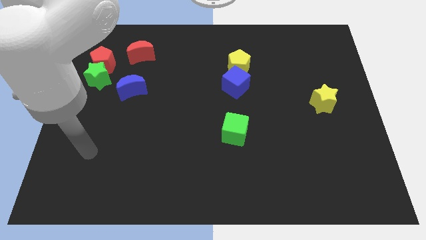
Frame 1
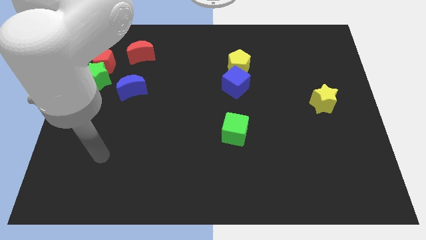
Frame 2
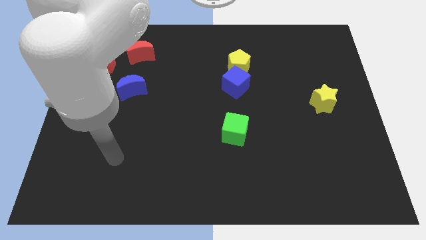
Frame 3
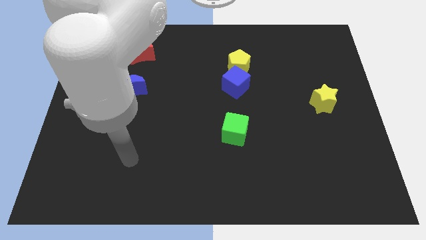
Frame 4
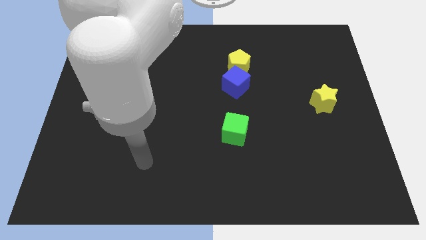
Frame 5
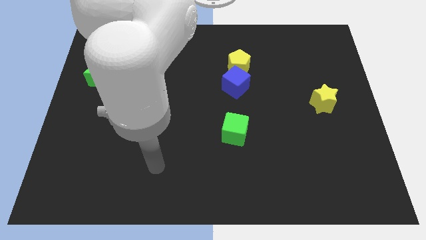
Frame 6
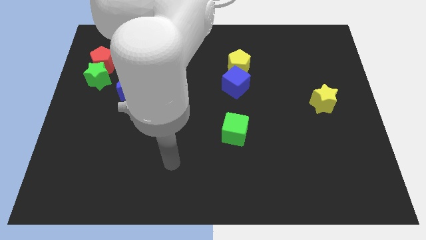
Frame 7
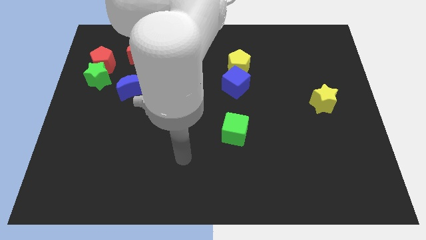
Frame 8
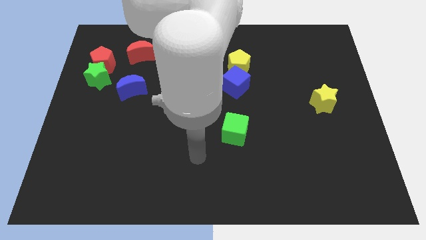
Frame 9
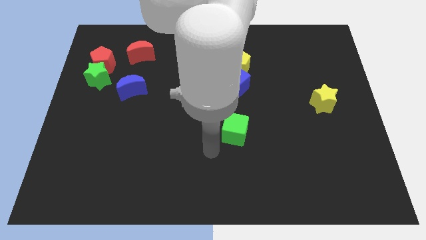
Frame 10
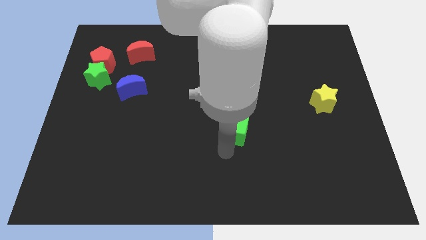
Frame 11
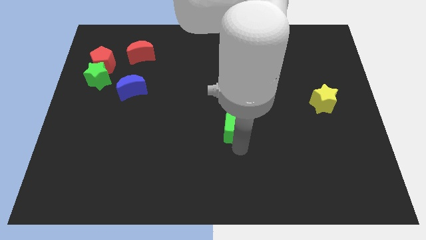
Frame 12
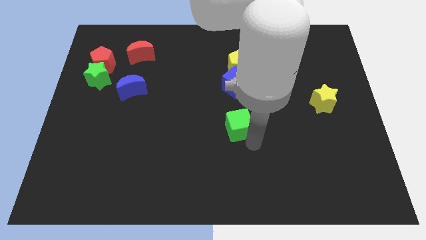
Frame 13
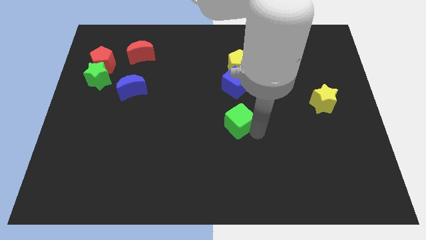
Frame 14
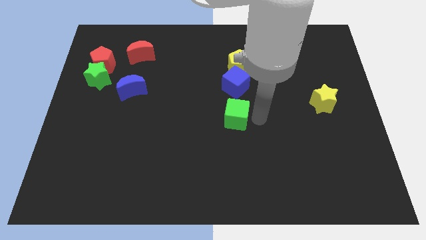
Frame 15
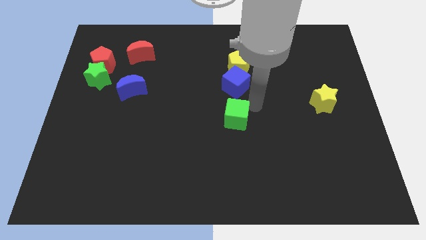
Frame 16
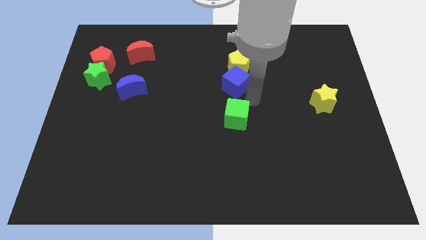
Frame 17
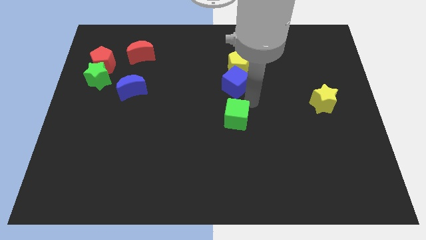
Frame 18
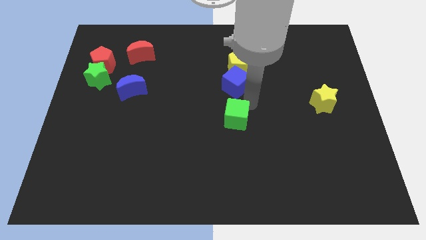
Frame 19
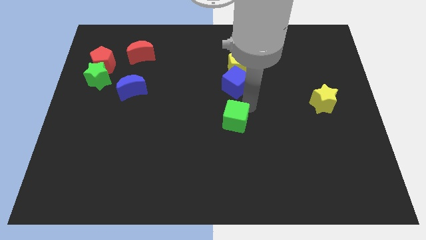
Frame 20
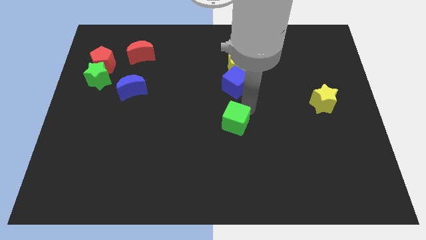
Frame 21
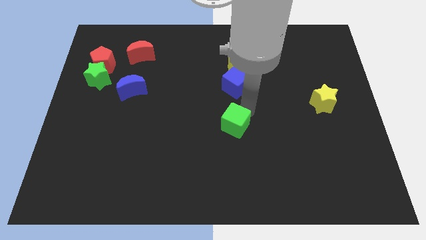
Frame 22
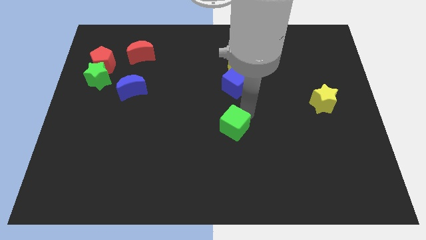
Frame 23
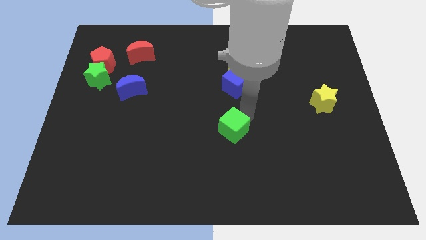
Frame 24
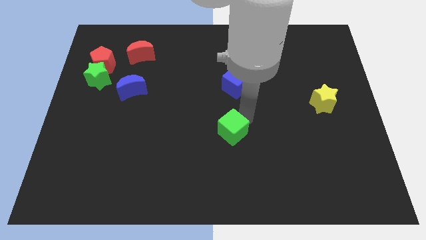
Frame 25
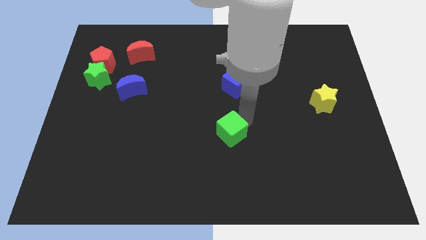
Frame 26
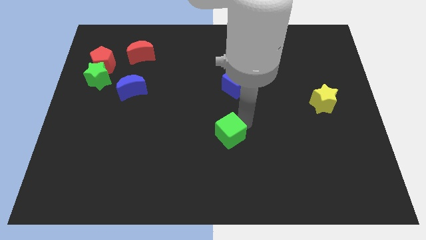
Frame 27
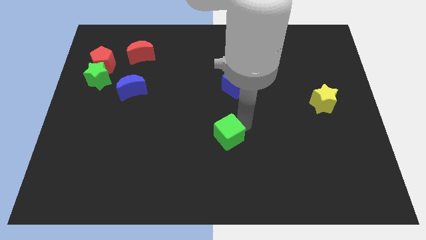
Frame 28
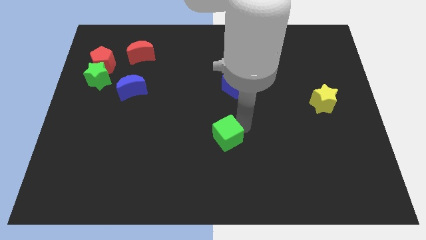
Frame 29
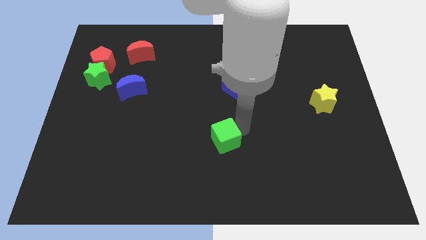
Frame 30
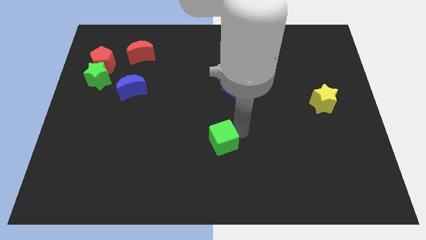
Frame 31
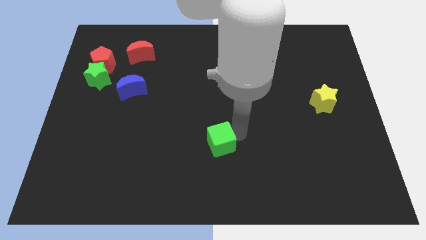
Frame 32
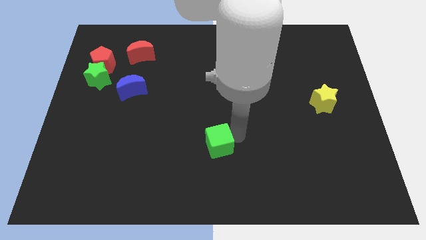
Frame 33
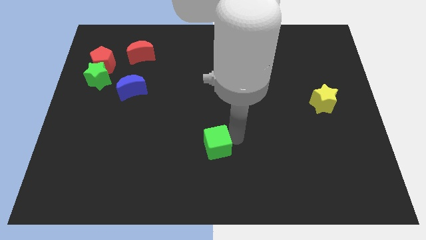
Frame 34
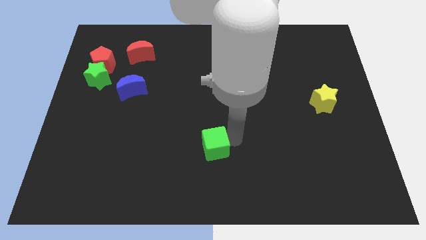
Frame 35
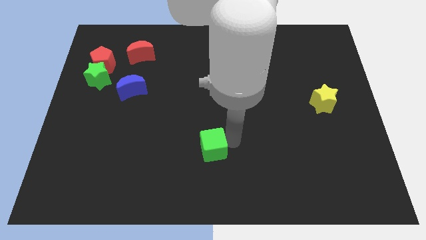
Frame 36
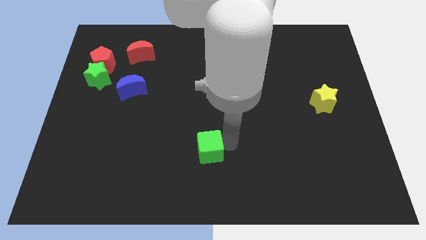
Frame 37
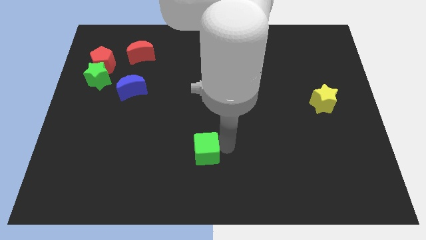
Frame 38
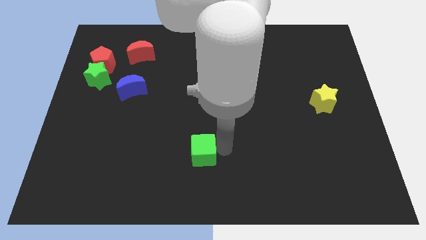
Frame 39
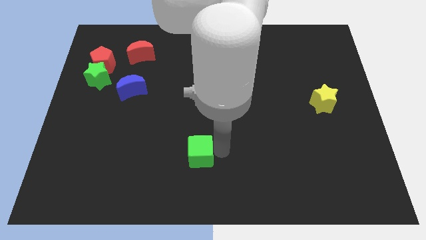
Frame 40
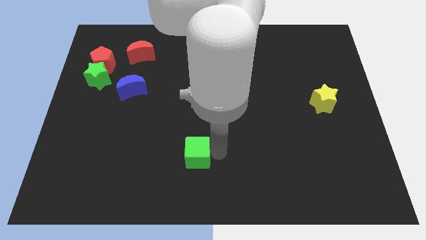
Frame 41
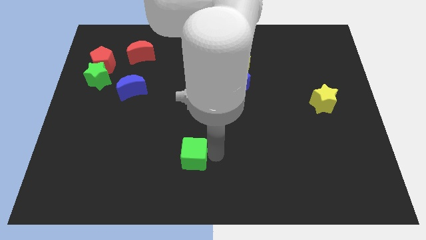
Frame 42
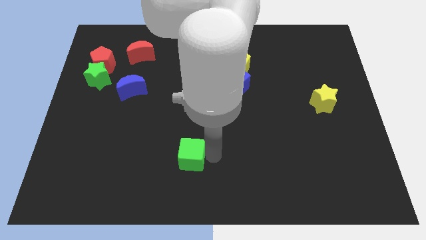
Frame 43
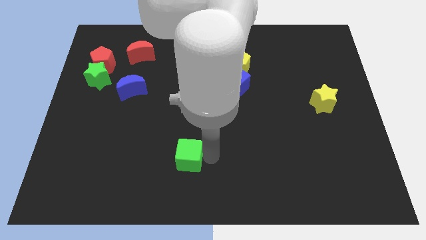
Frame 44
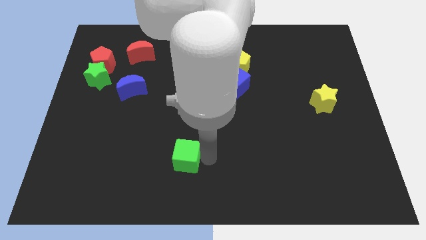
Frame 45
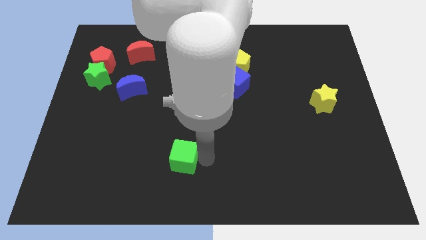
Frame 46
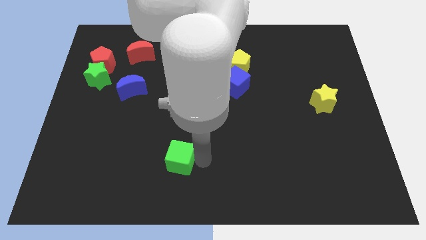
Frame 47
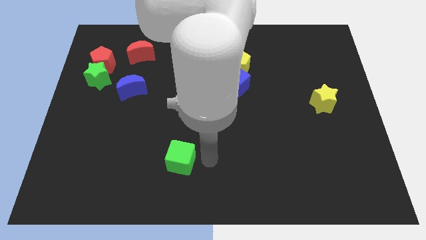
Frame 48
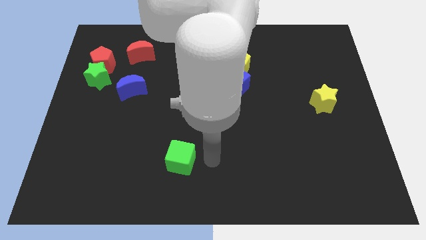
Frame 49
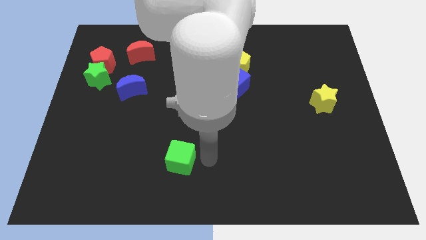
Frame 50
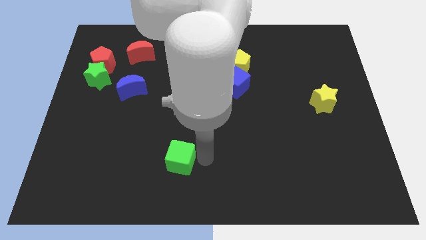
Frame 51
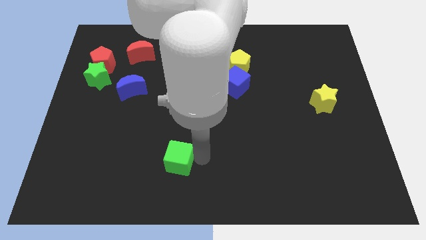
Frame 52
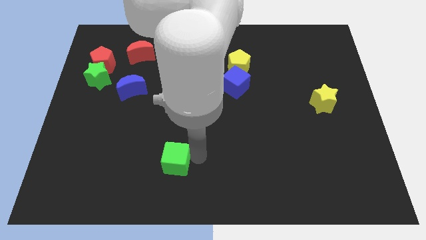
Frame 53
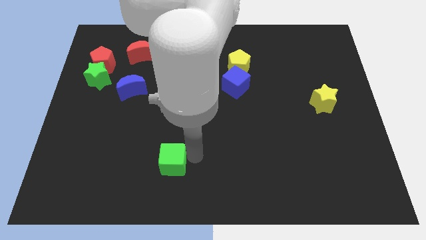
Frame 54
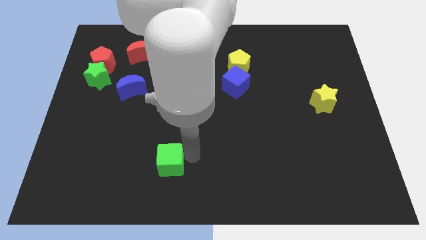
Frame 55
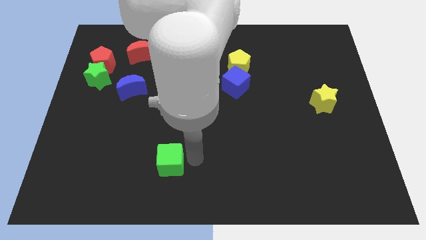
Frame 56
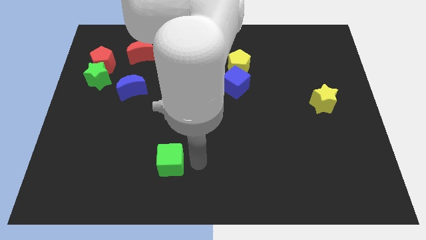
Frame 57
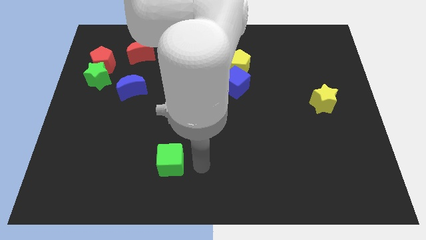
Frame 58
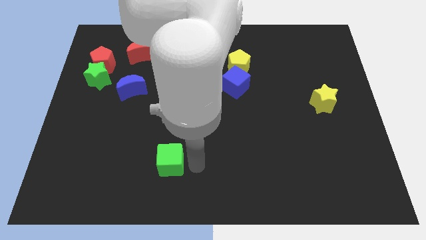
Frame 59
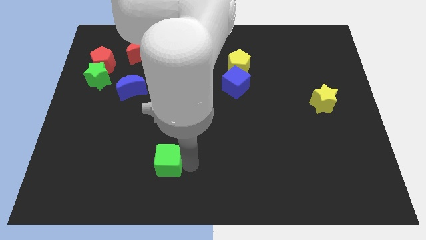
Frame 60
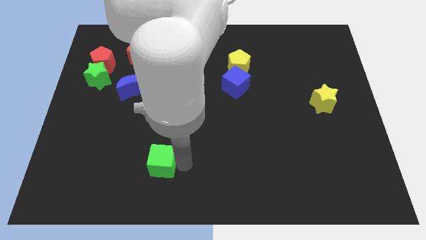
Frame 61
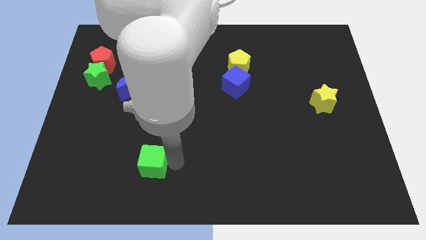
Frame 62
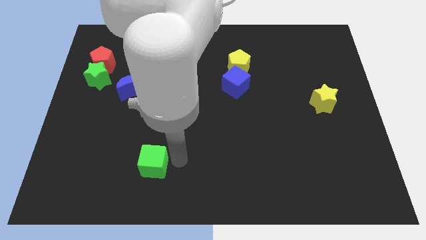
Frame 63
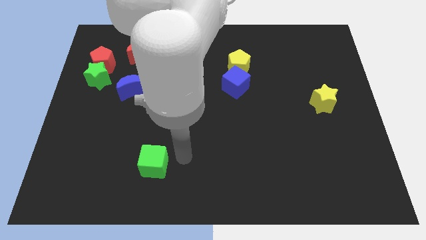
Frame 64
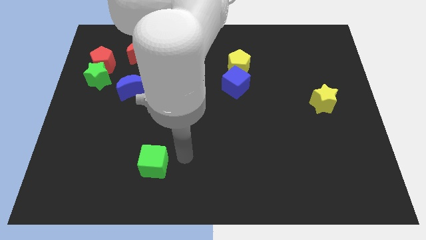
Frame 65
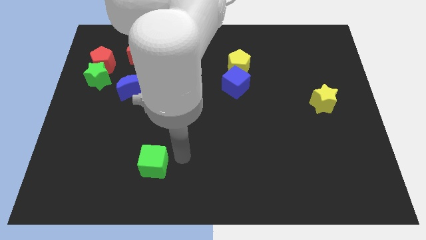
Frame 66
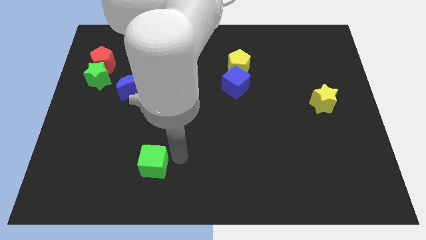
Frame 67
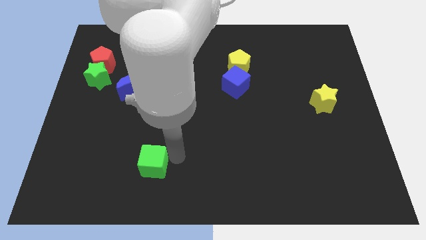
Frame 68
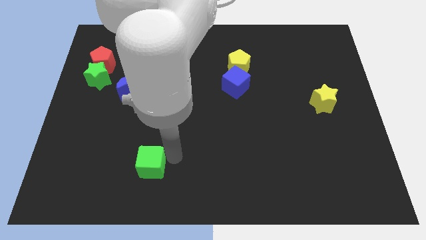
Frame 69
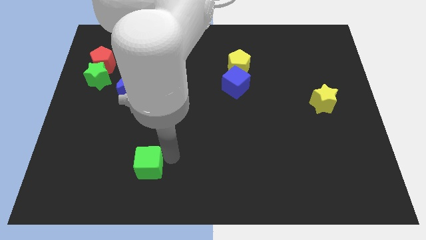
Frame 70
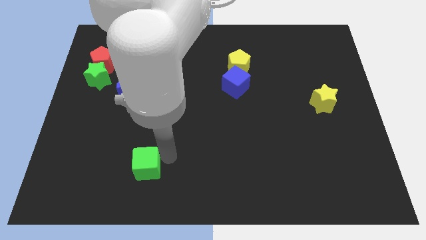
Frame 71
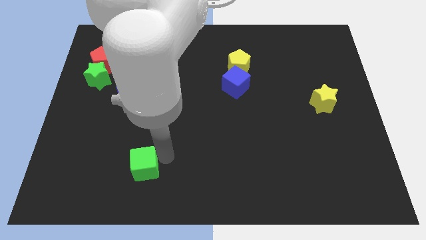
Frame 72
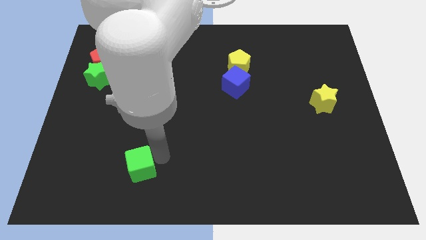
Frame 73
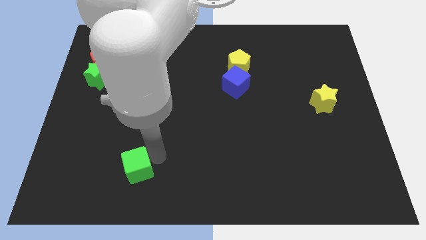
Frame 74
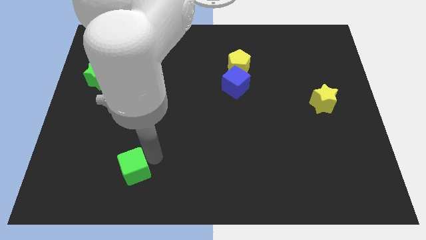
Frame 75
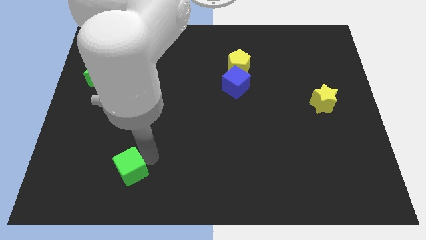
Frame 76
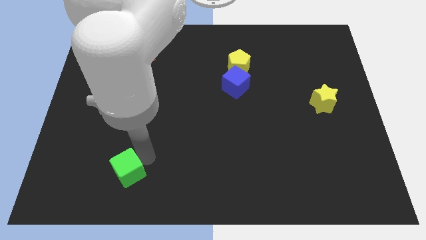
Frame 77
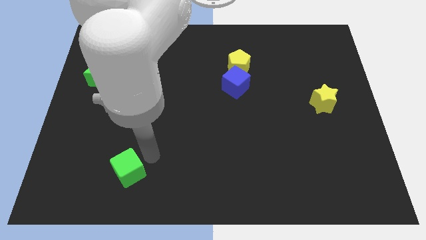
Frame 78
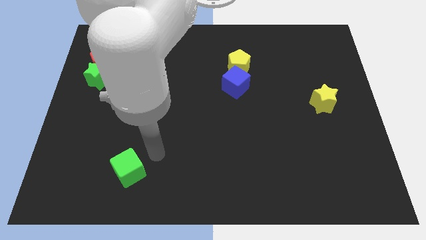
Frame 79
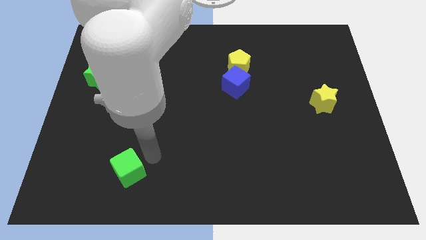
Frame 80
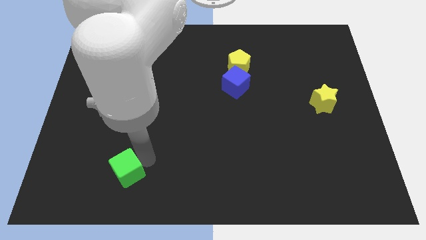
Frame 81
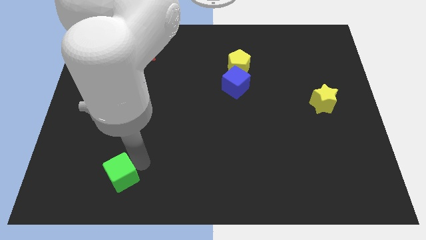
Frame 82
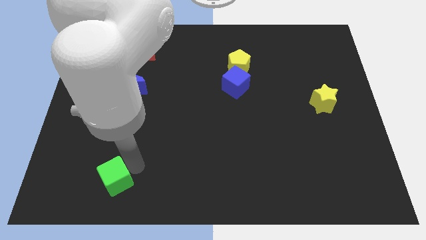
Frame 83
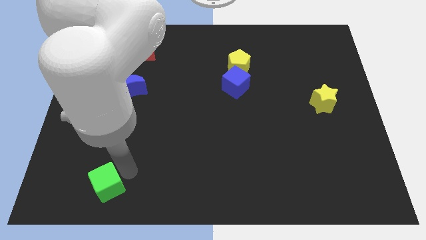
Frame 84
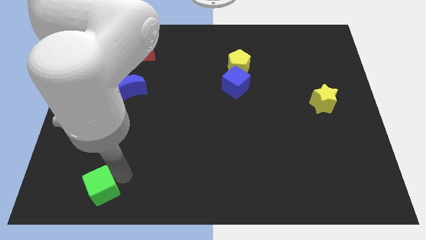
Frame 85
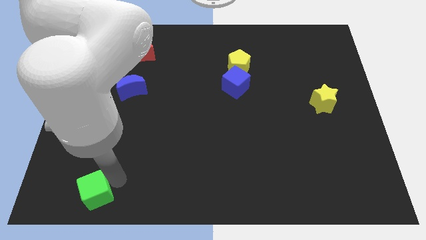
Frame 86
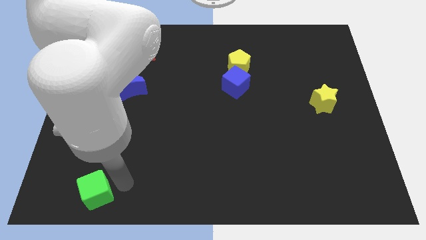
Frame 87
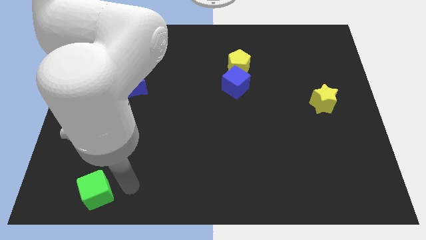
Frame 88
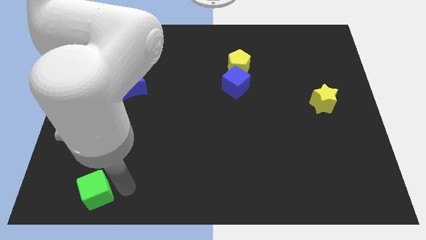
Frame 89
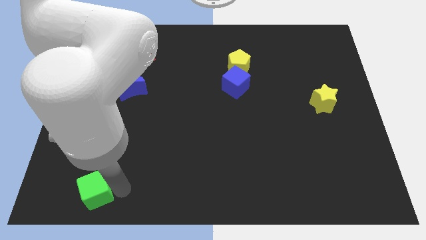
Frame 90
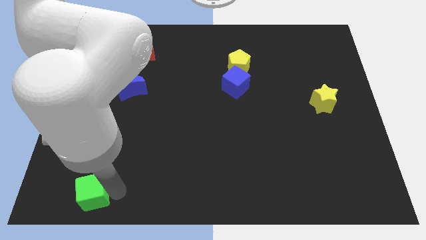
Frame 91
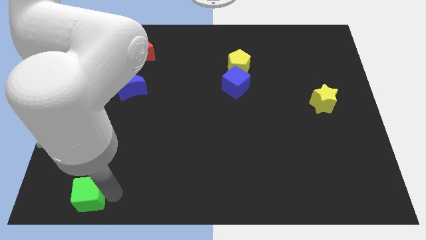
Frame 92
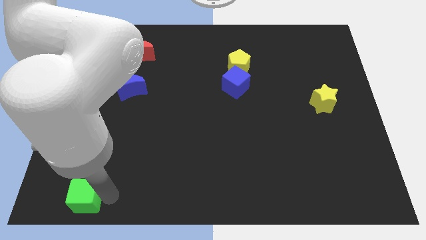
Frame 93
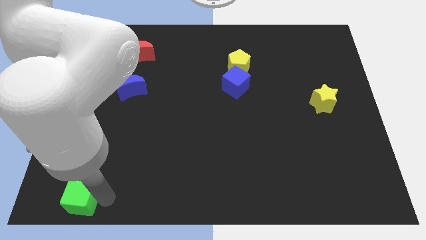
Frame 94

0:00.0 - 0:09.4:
put the green cube to the bottom left
